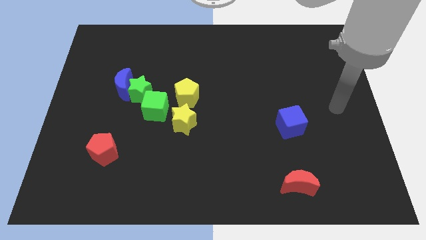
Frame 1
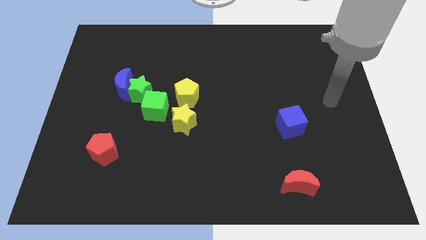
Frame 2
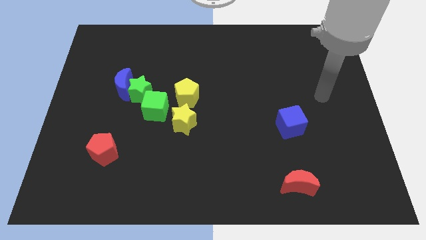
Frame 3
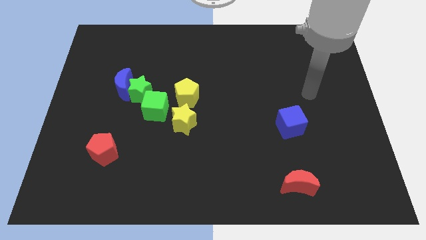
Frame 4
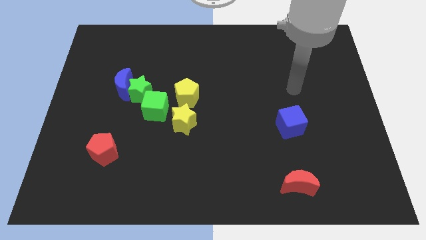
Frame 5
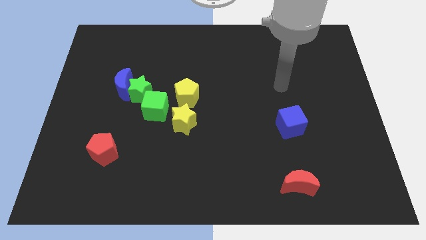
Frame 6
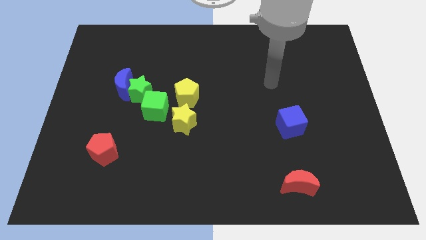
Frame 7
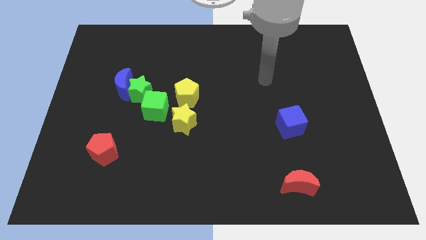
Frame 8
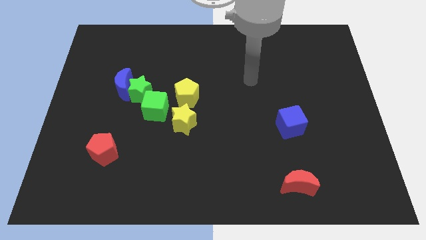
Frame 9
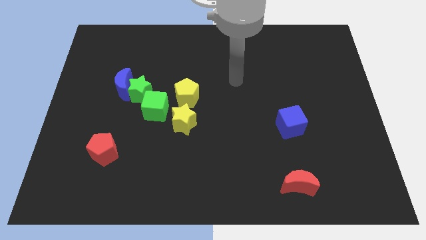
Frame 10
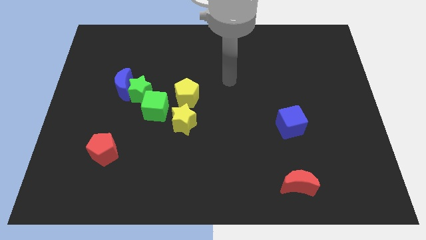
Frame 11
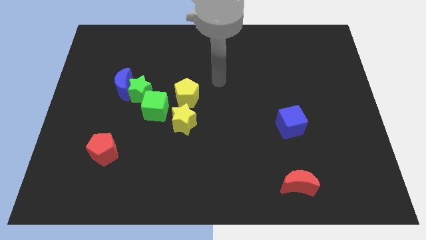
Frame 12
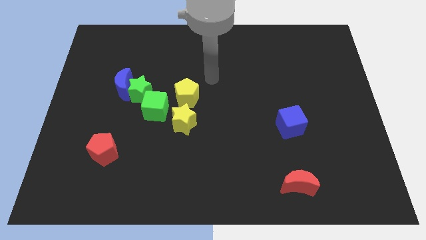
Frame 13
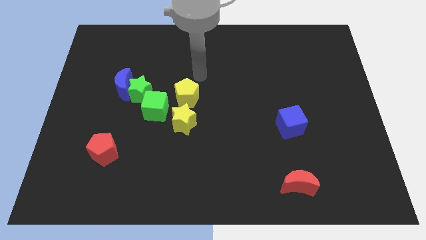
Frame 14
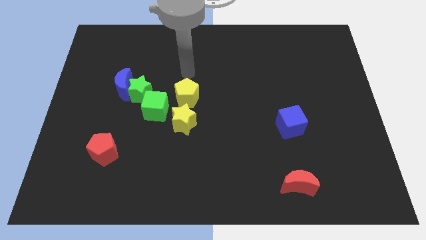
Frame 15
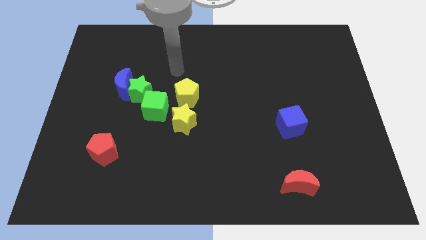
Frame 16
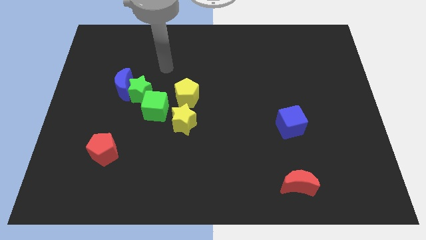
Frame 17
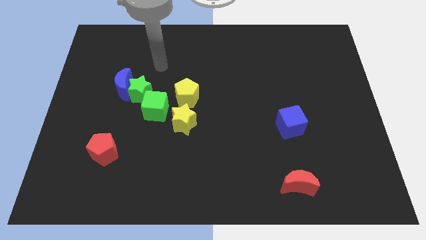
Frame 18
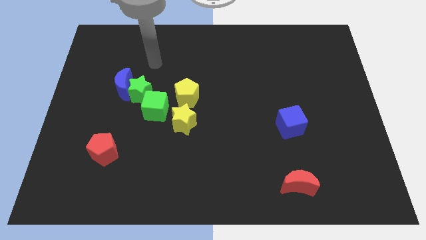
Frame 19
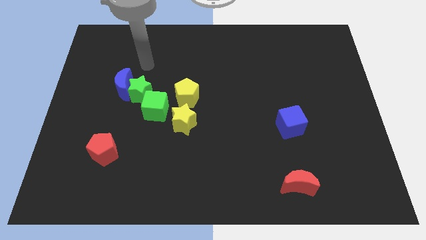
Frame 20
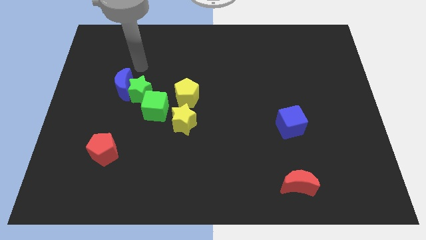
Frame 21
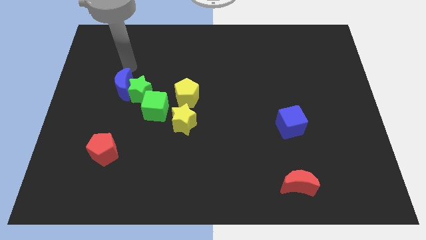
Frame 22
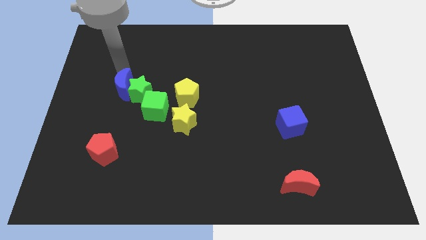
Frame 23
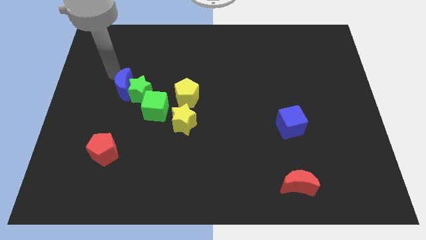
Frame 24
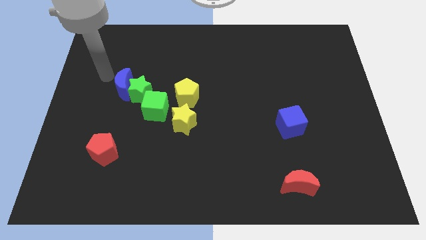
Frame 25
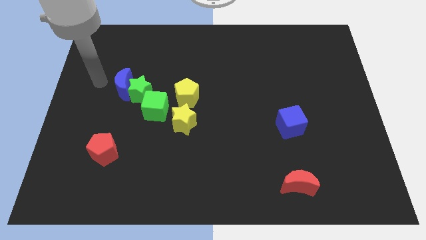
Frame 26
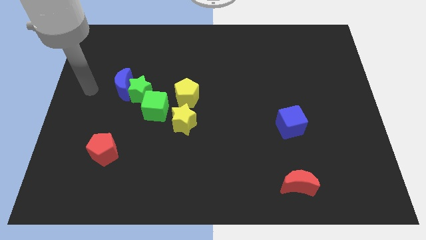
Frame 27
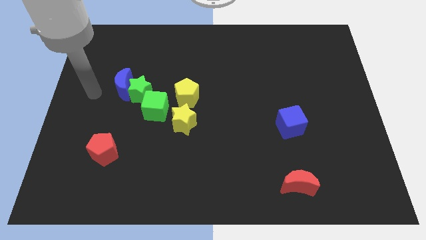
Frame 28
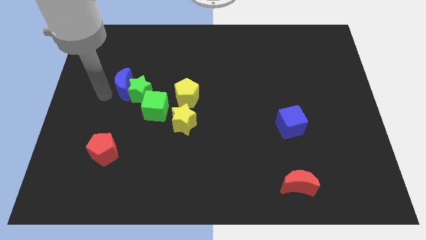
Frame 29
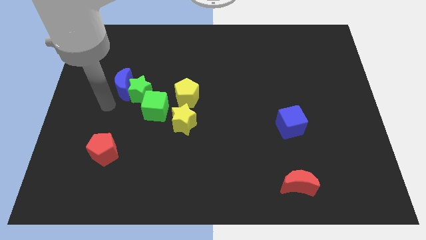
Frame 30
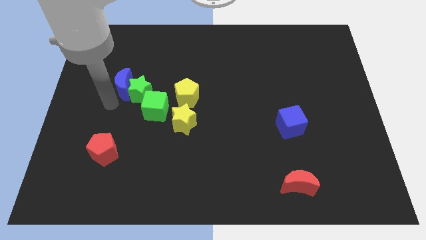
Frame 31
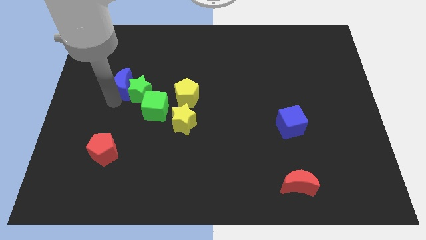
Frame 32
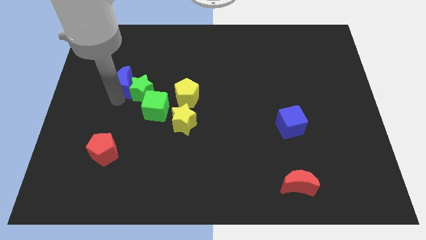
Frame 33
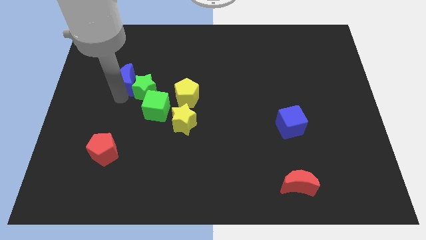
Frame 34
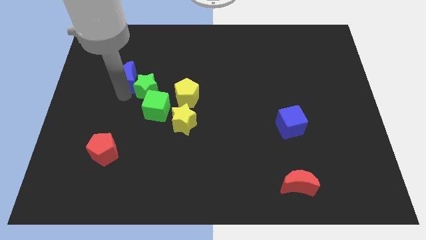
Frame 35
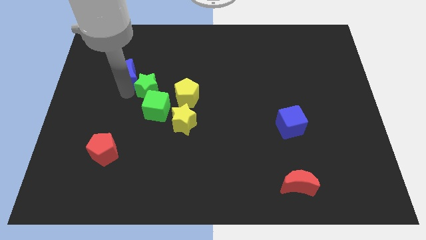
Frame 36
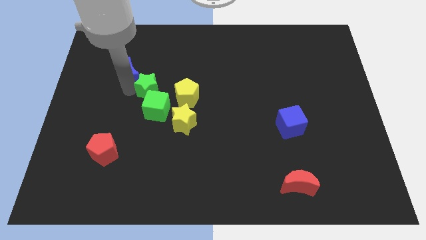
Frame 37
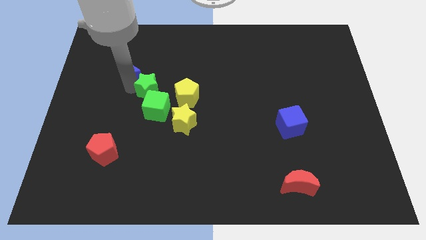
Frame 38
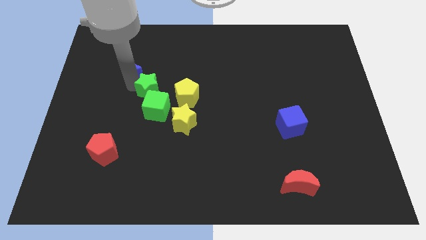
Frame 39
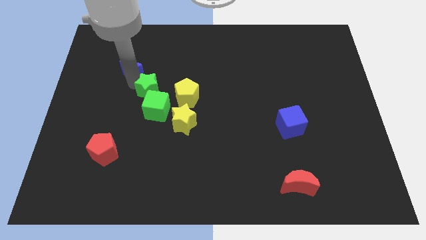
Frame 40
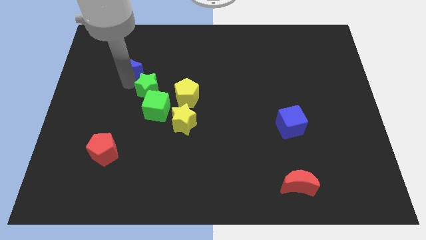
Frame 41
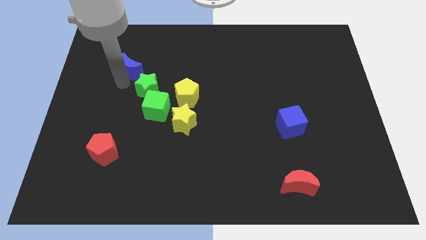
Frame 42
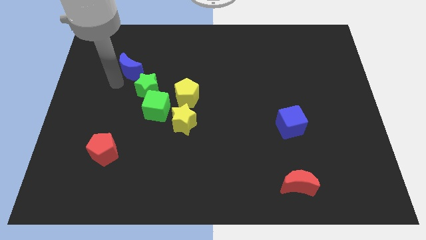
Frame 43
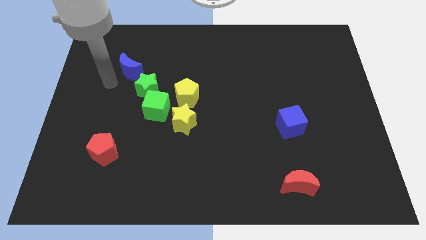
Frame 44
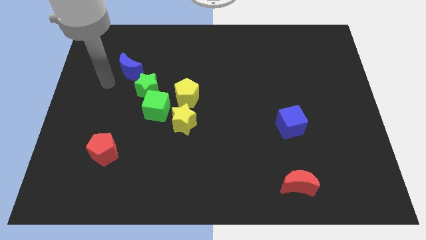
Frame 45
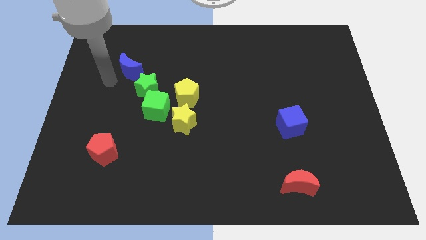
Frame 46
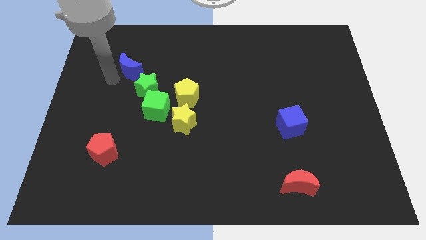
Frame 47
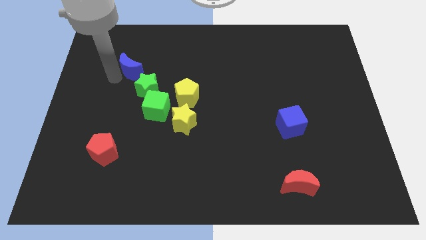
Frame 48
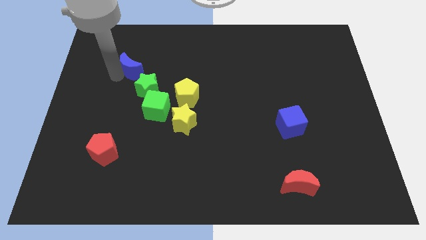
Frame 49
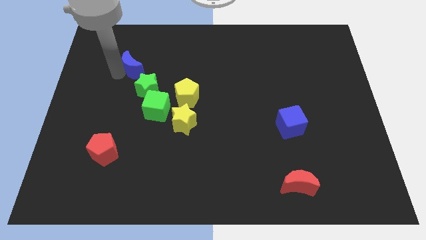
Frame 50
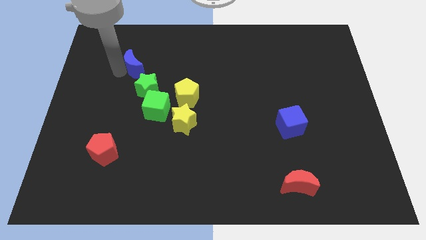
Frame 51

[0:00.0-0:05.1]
push the blue moon above the green star

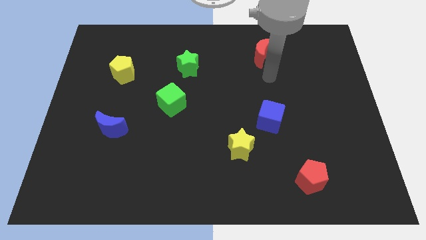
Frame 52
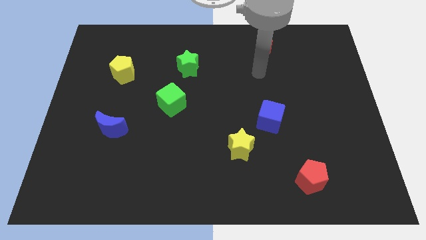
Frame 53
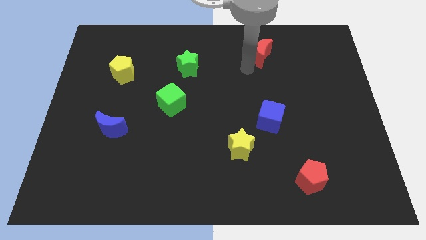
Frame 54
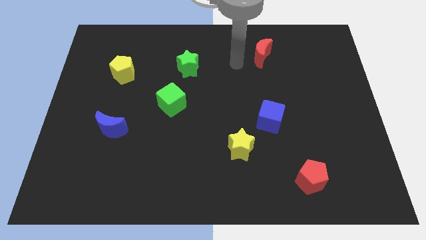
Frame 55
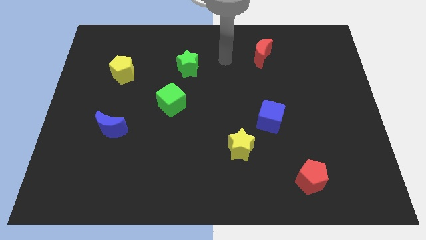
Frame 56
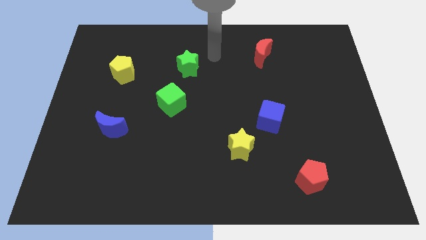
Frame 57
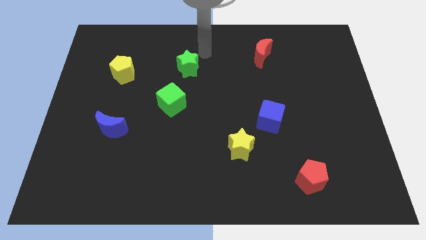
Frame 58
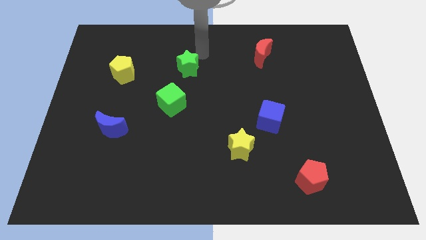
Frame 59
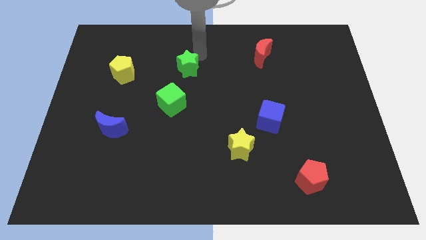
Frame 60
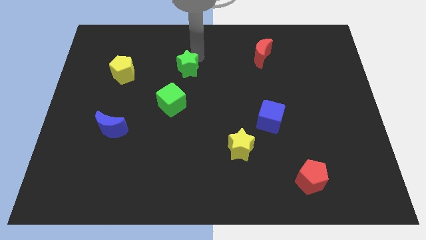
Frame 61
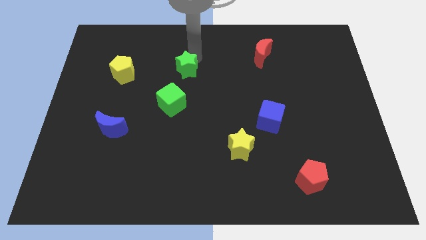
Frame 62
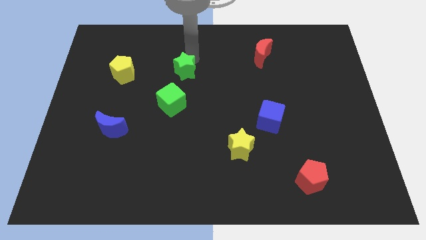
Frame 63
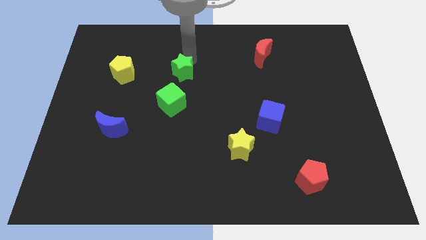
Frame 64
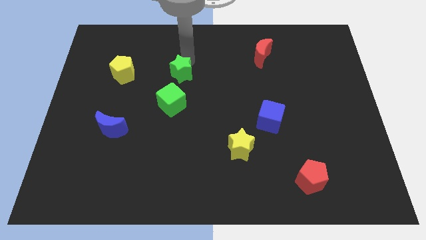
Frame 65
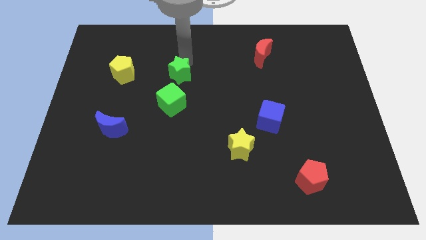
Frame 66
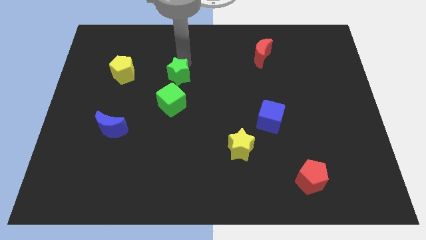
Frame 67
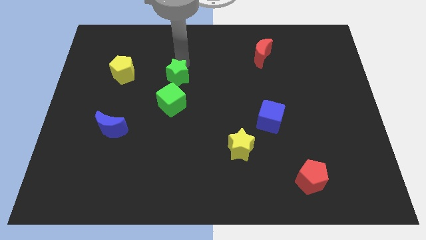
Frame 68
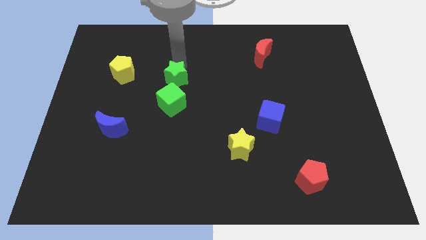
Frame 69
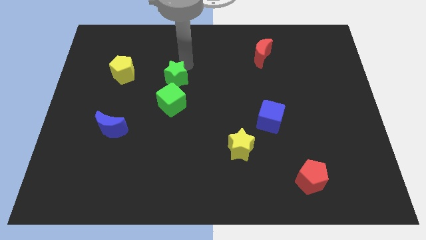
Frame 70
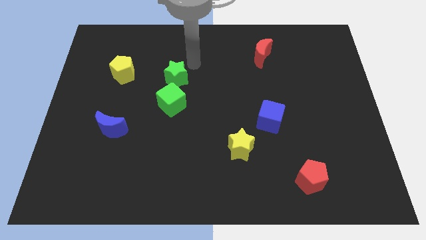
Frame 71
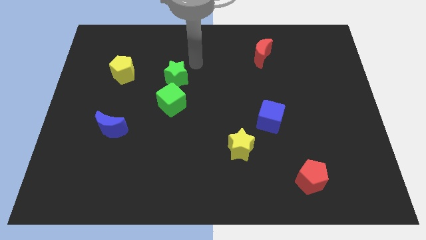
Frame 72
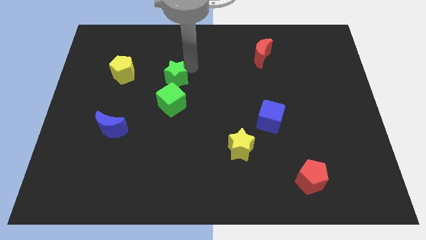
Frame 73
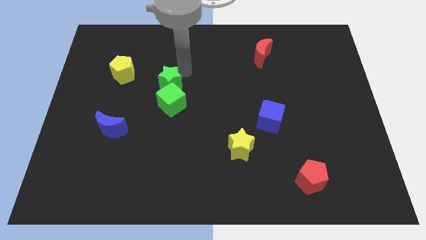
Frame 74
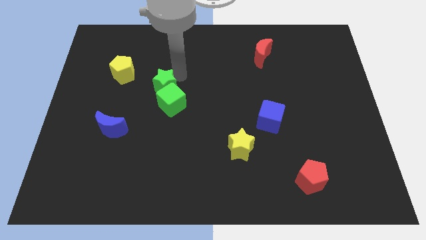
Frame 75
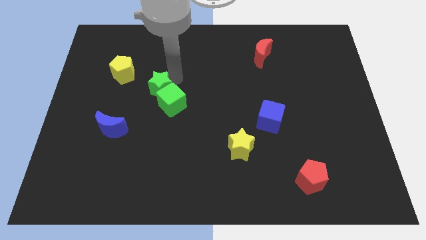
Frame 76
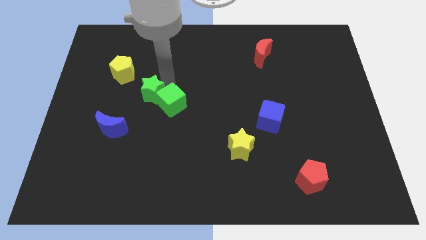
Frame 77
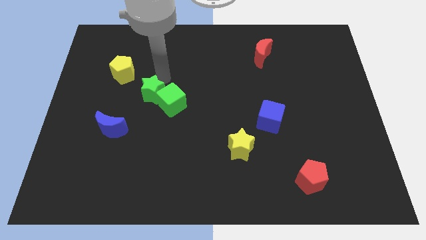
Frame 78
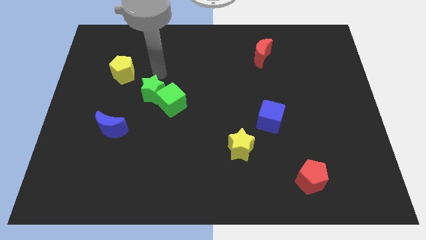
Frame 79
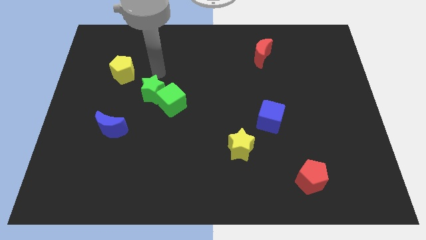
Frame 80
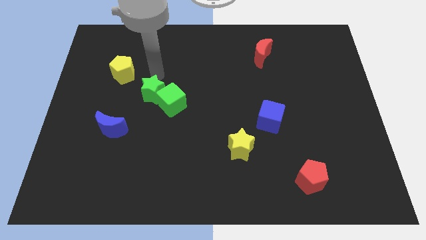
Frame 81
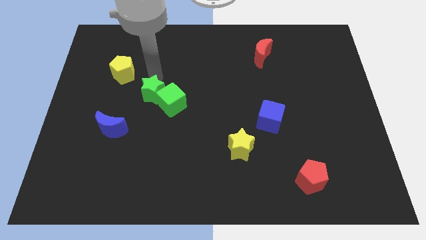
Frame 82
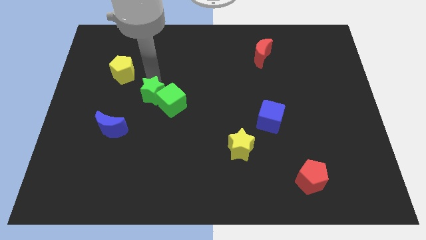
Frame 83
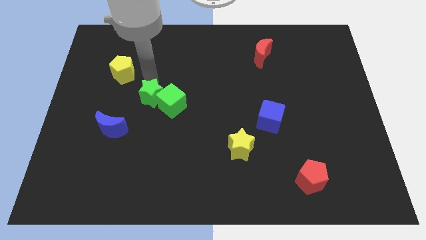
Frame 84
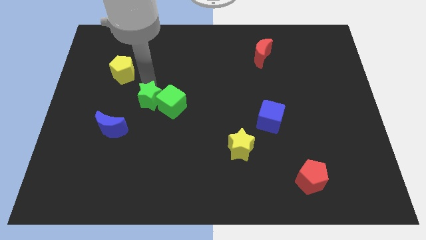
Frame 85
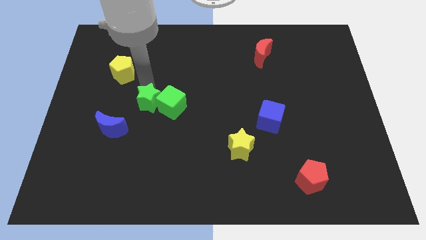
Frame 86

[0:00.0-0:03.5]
put the green star diagonally down and to the left of the green cube
